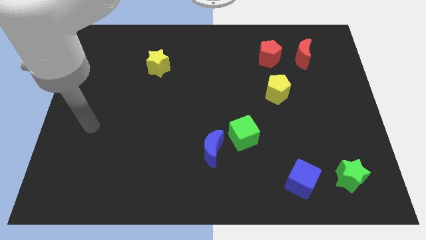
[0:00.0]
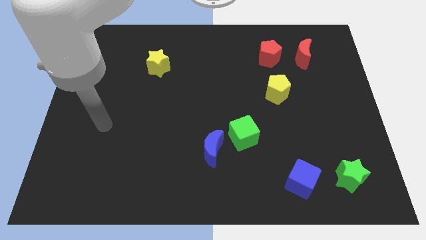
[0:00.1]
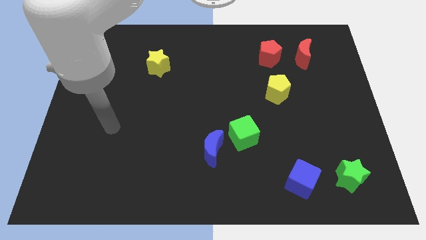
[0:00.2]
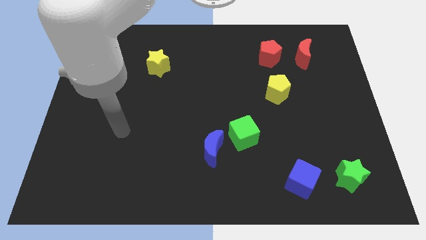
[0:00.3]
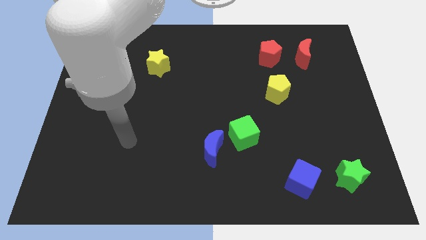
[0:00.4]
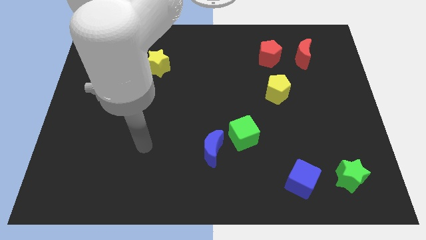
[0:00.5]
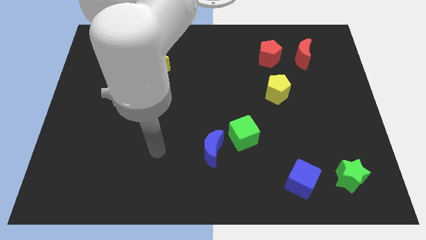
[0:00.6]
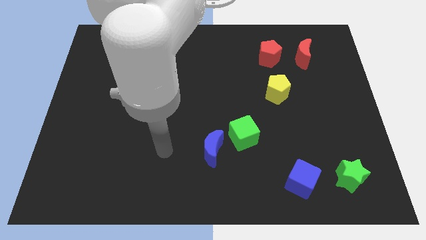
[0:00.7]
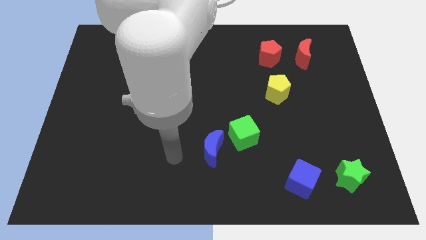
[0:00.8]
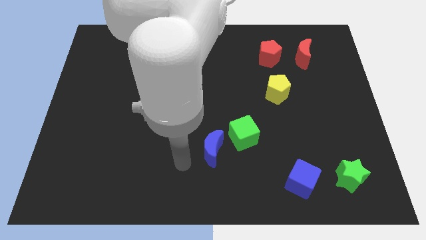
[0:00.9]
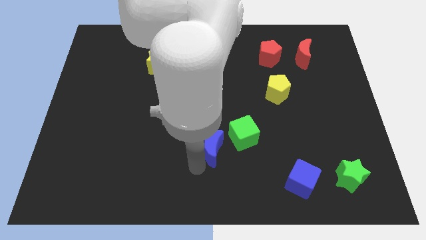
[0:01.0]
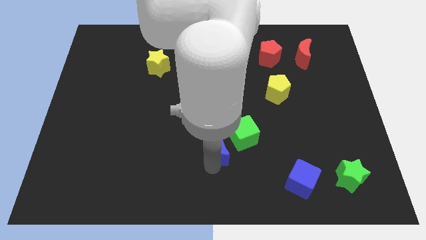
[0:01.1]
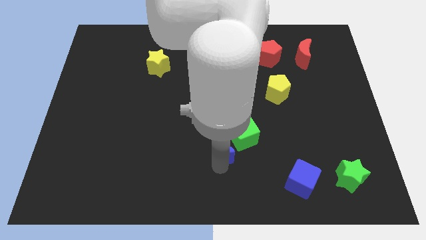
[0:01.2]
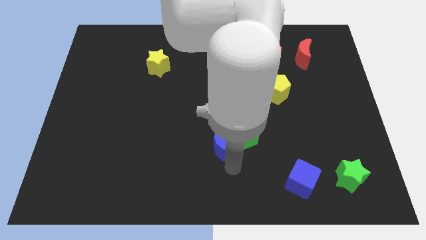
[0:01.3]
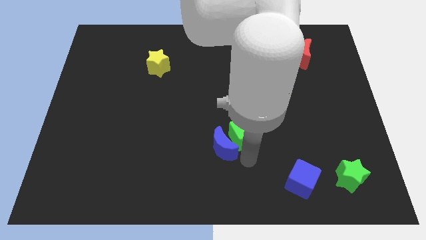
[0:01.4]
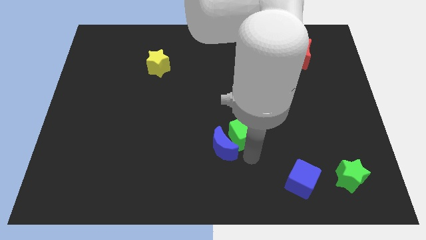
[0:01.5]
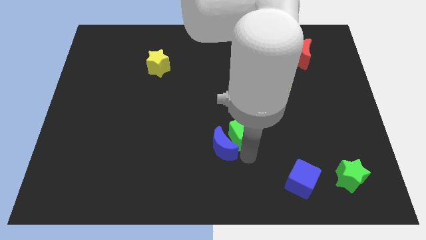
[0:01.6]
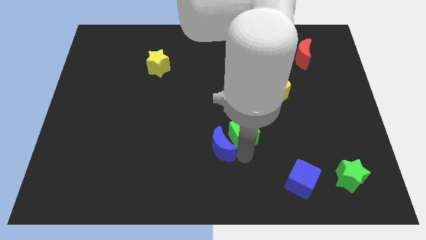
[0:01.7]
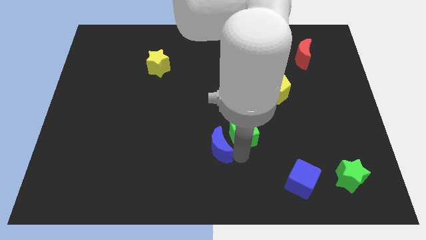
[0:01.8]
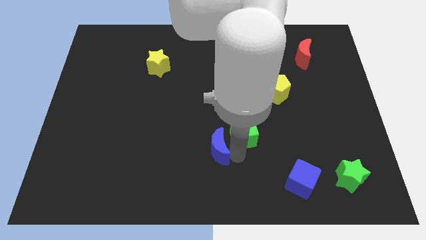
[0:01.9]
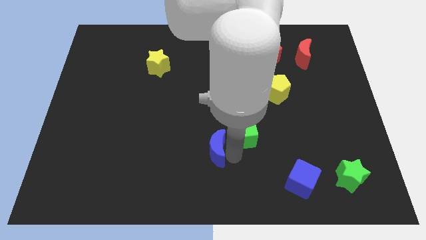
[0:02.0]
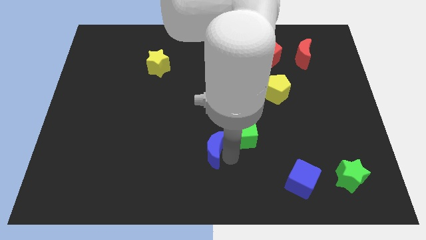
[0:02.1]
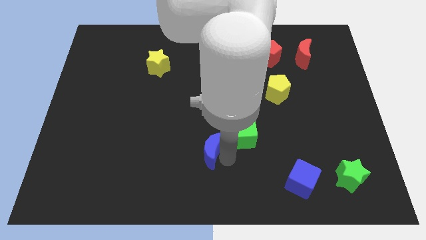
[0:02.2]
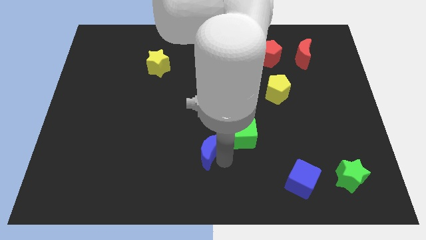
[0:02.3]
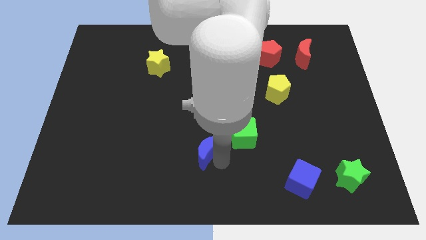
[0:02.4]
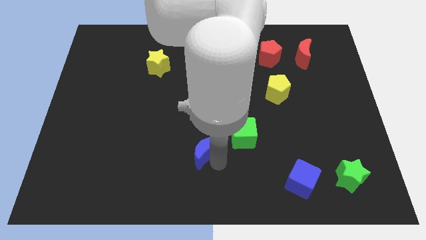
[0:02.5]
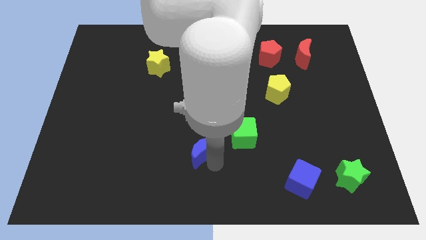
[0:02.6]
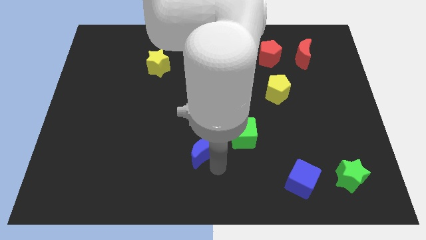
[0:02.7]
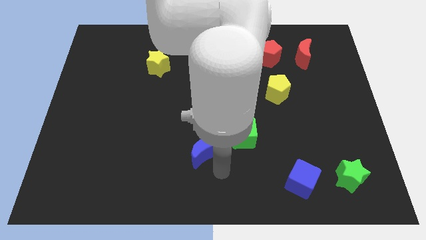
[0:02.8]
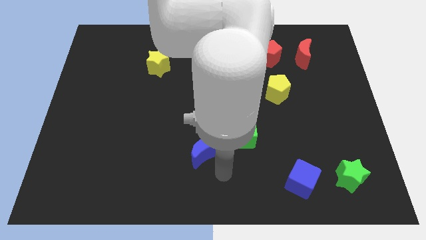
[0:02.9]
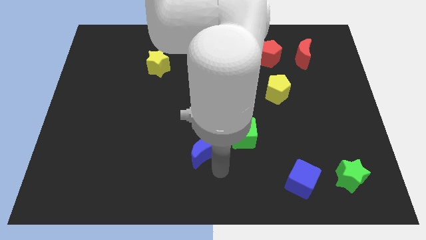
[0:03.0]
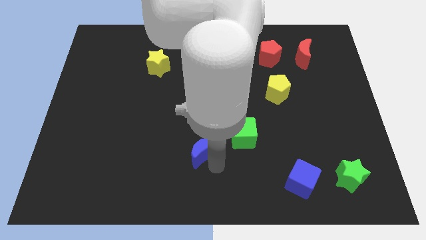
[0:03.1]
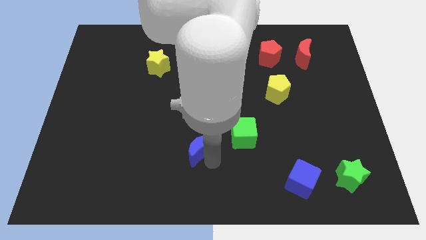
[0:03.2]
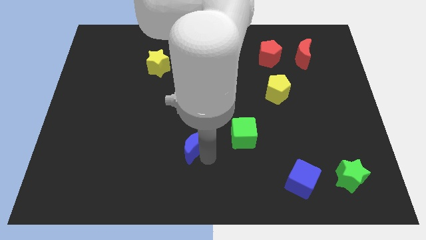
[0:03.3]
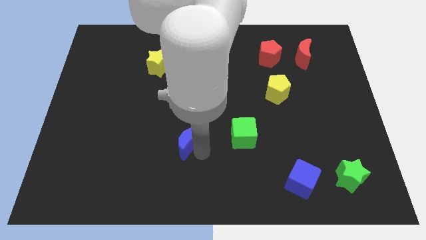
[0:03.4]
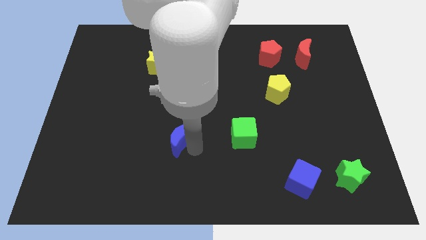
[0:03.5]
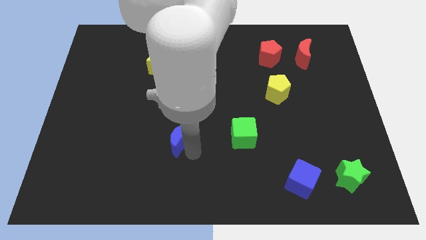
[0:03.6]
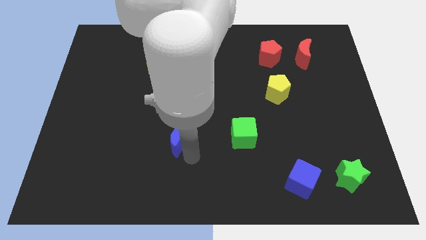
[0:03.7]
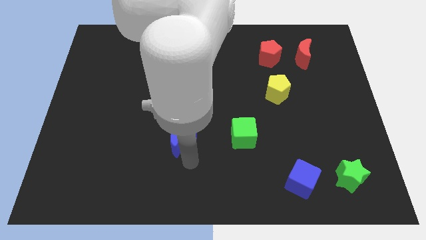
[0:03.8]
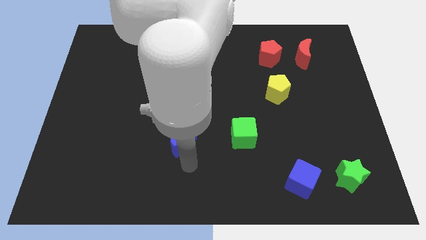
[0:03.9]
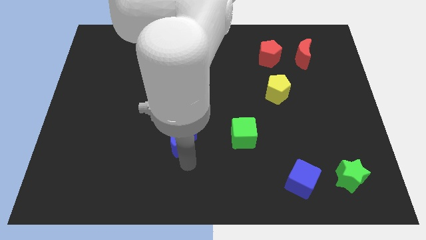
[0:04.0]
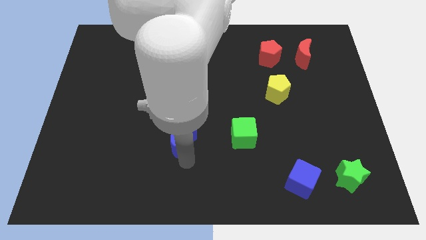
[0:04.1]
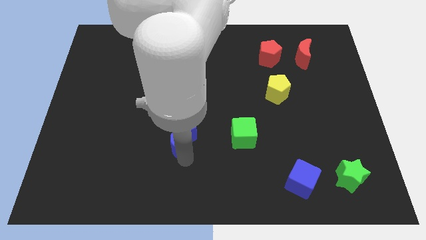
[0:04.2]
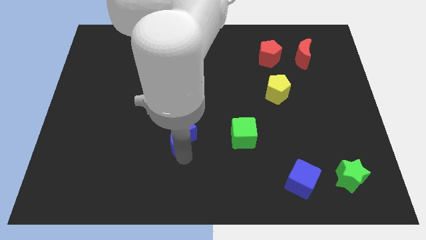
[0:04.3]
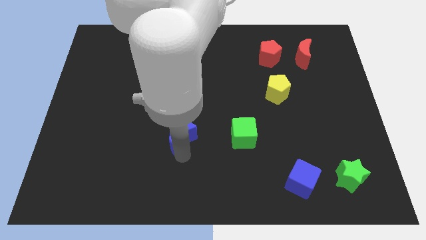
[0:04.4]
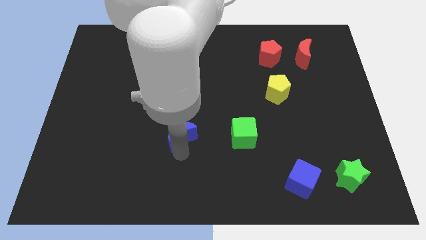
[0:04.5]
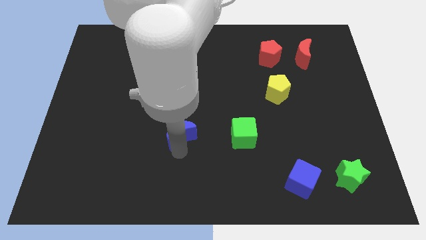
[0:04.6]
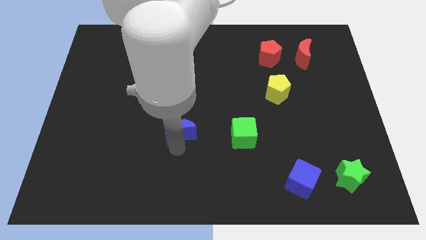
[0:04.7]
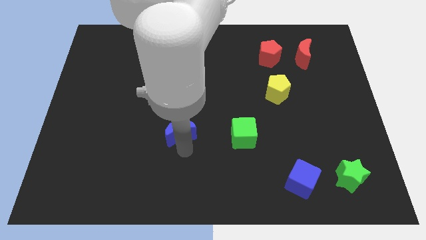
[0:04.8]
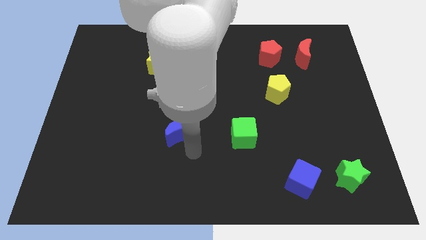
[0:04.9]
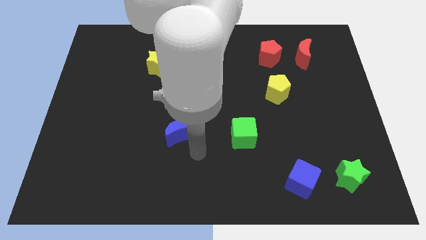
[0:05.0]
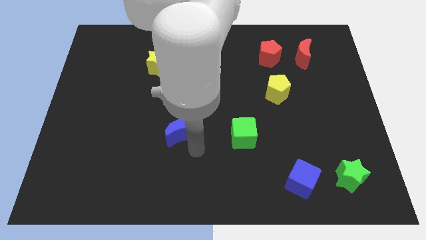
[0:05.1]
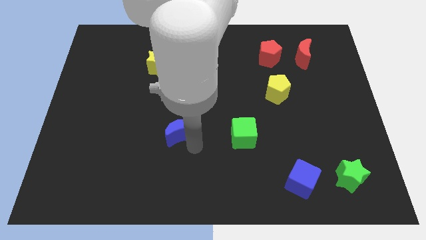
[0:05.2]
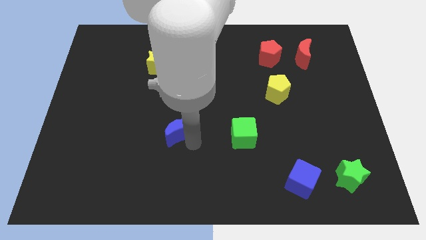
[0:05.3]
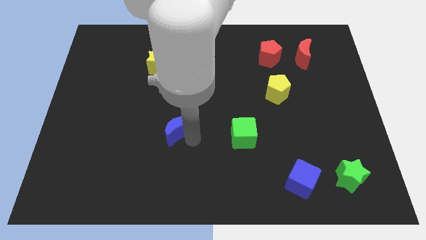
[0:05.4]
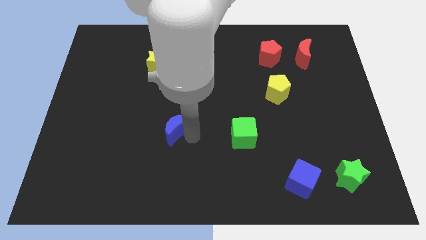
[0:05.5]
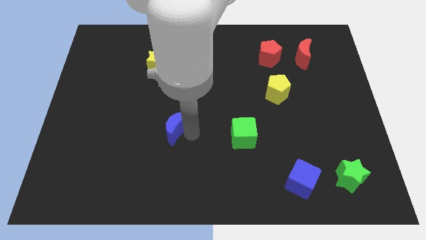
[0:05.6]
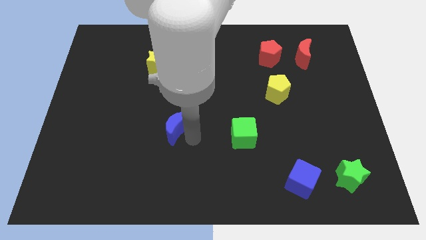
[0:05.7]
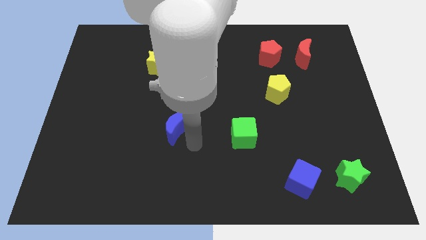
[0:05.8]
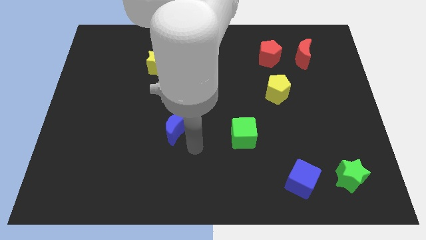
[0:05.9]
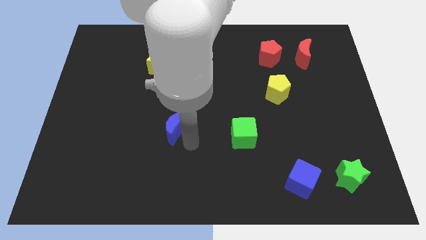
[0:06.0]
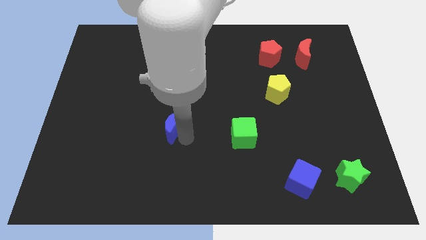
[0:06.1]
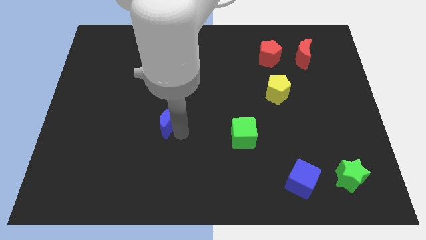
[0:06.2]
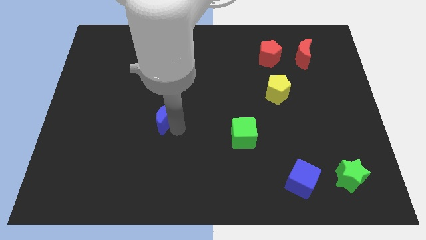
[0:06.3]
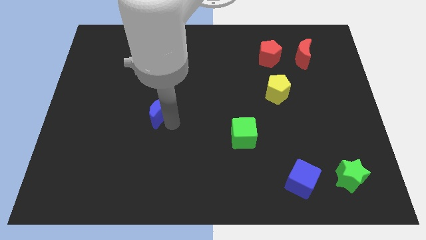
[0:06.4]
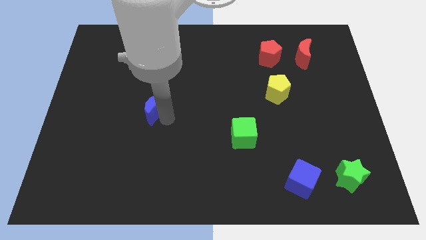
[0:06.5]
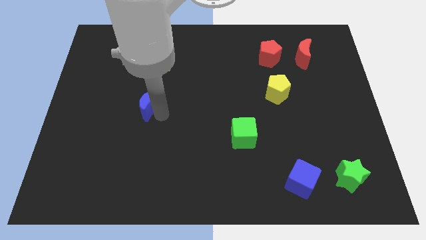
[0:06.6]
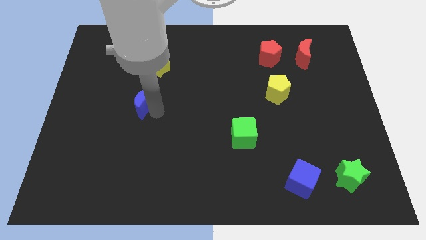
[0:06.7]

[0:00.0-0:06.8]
move the blue moon up and left

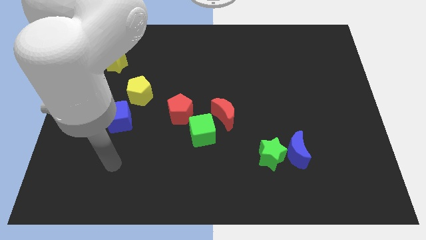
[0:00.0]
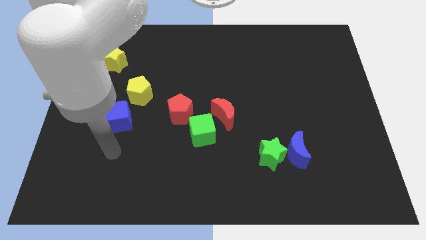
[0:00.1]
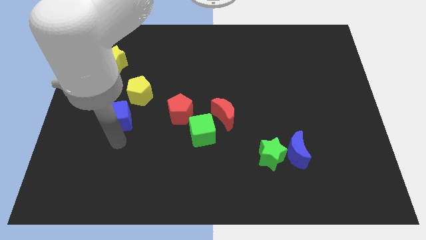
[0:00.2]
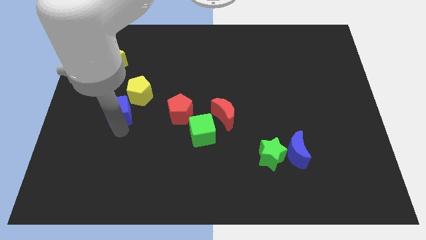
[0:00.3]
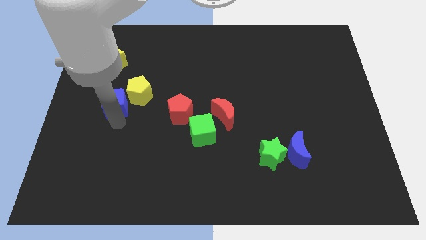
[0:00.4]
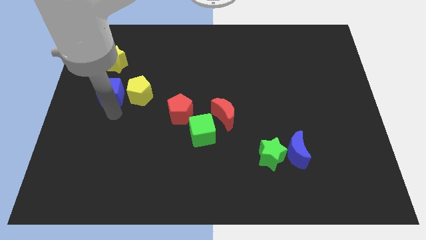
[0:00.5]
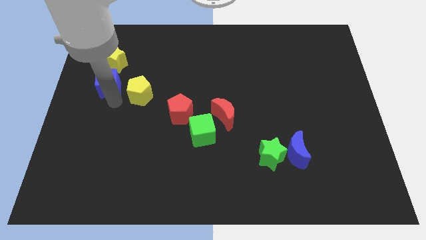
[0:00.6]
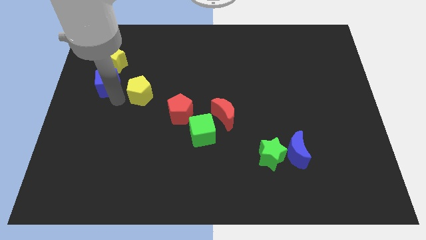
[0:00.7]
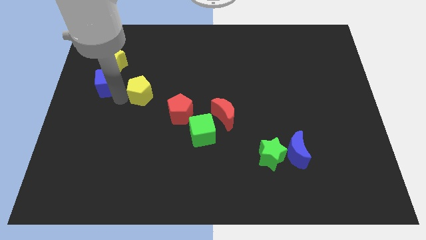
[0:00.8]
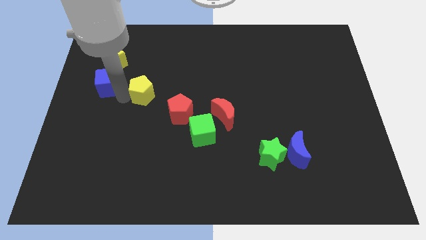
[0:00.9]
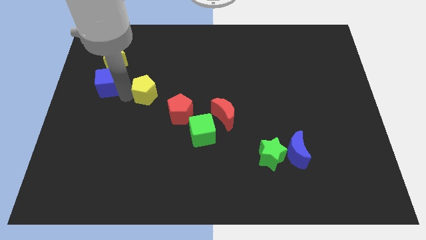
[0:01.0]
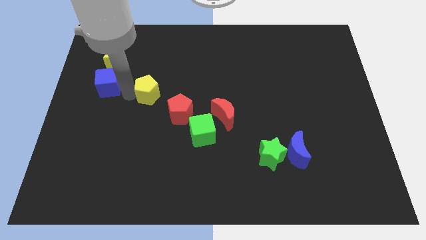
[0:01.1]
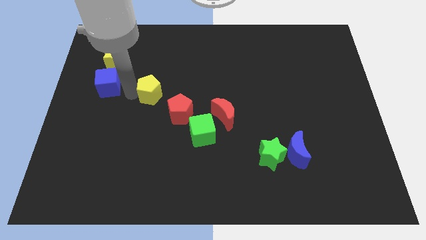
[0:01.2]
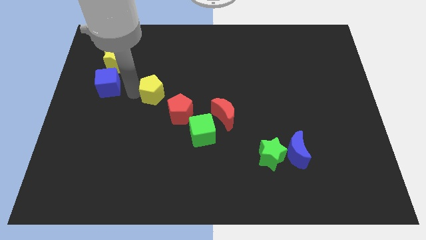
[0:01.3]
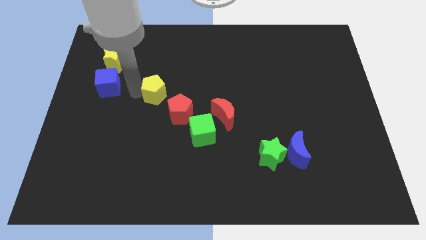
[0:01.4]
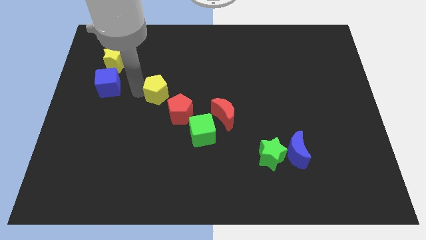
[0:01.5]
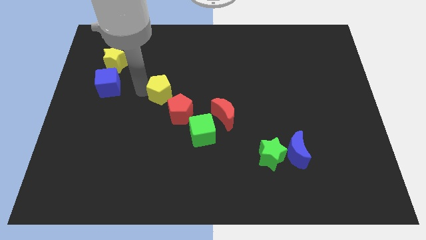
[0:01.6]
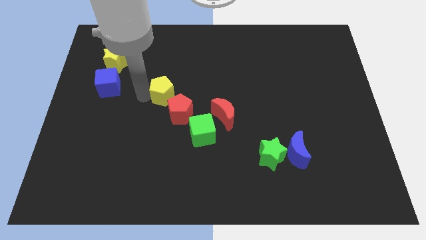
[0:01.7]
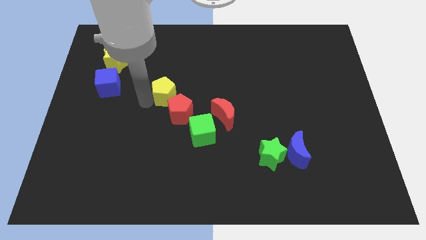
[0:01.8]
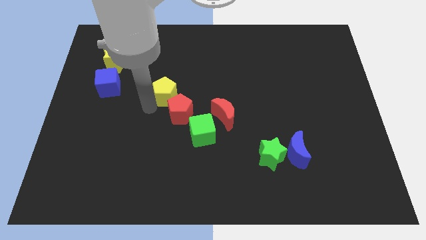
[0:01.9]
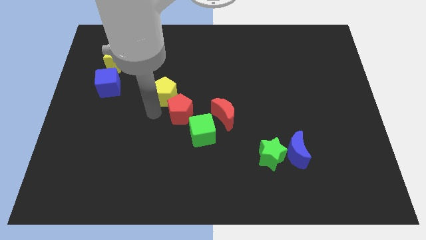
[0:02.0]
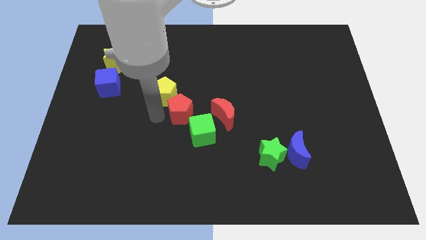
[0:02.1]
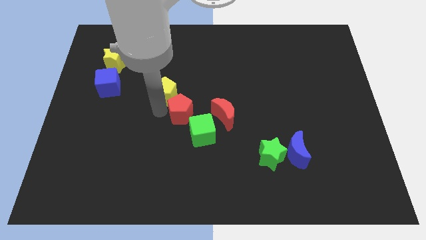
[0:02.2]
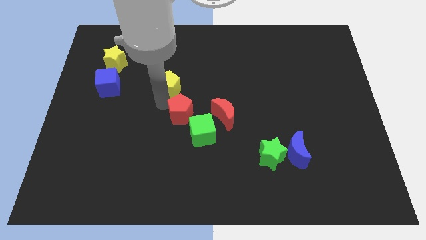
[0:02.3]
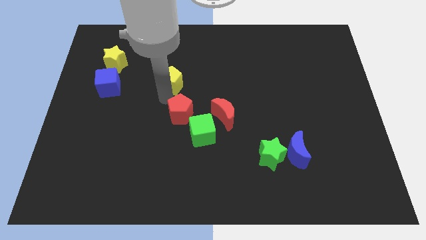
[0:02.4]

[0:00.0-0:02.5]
slide the yellow pentagon upwards and to the right diagonally slightly
